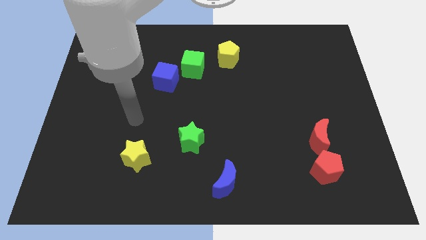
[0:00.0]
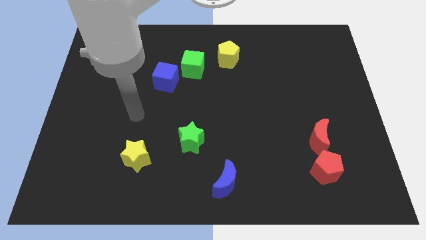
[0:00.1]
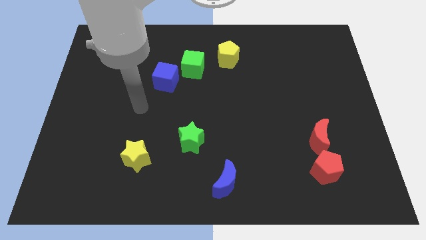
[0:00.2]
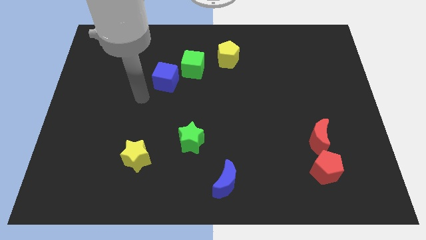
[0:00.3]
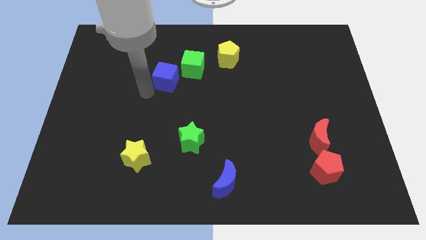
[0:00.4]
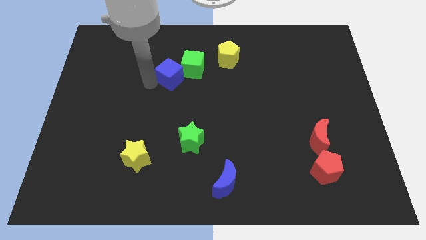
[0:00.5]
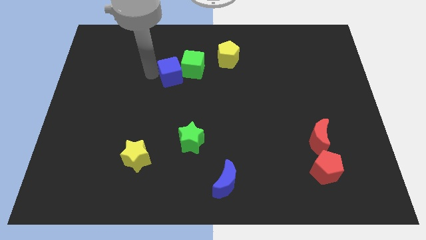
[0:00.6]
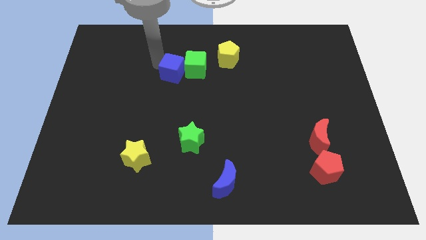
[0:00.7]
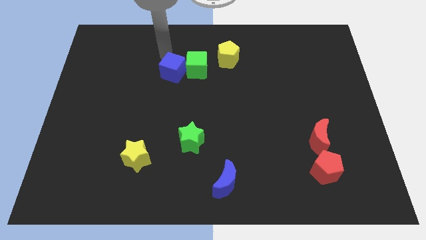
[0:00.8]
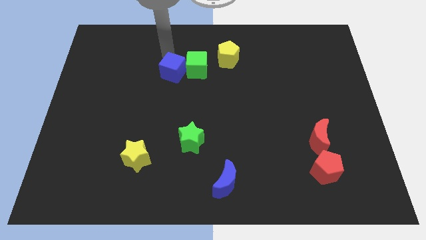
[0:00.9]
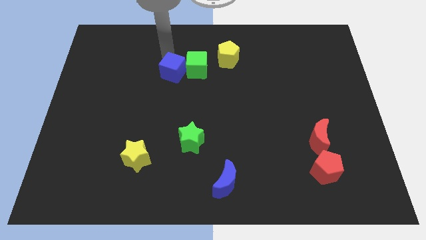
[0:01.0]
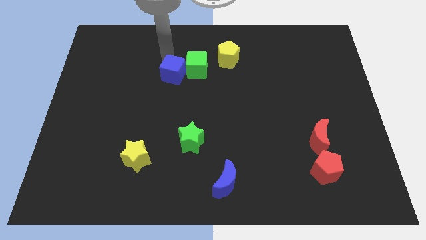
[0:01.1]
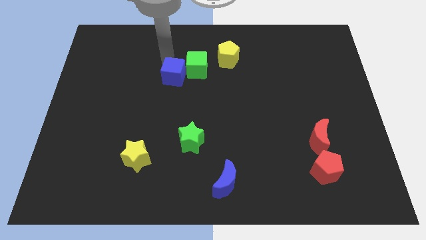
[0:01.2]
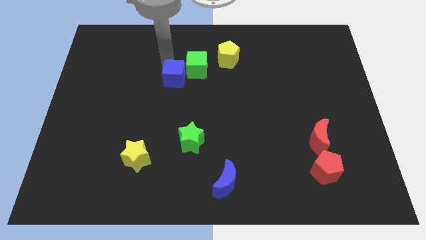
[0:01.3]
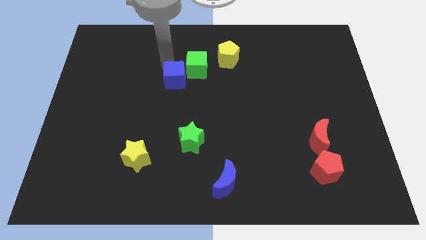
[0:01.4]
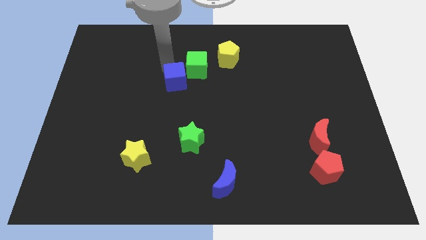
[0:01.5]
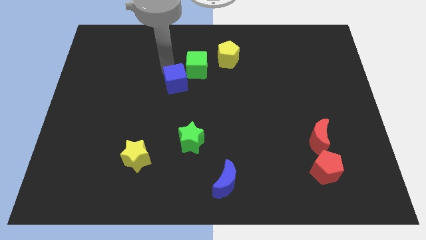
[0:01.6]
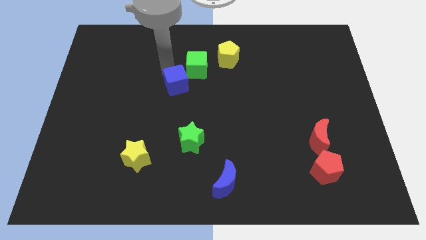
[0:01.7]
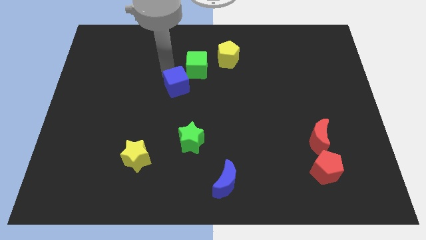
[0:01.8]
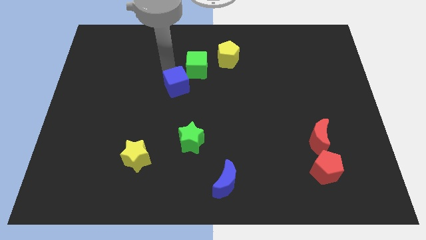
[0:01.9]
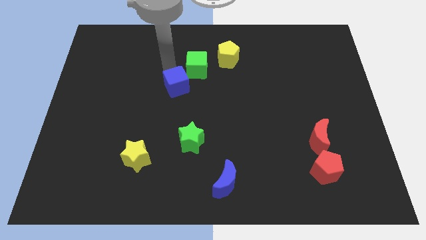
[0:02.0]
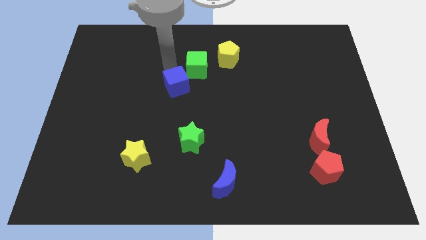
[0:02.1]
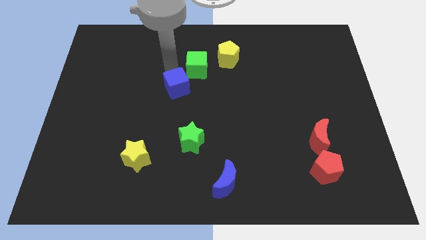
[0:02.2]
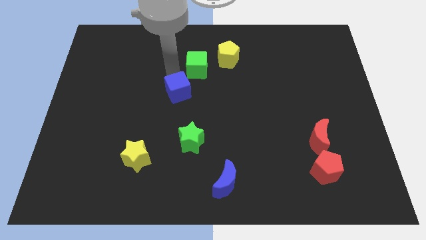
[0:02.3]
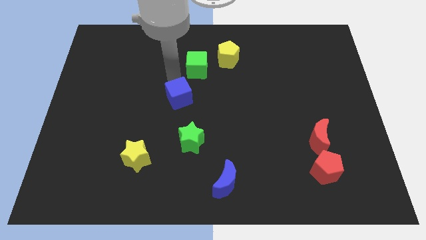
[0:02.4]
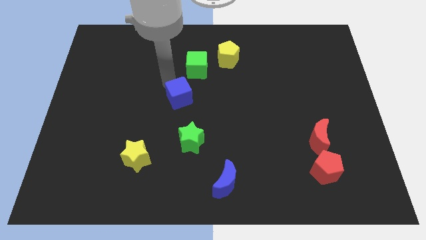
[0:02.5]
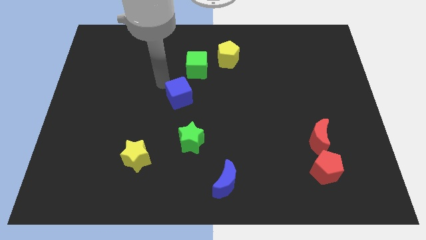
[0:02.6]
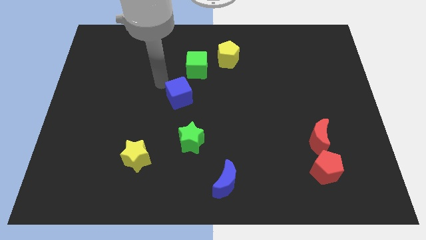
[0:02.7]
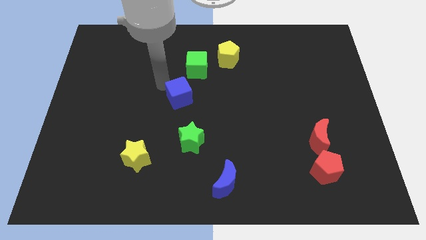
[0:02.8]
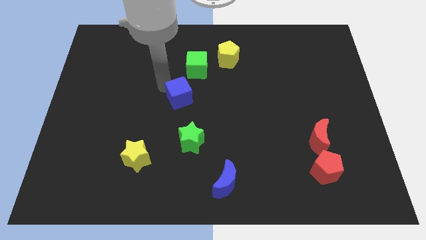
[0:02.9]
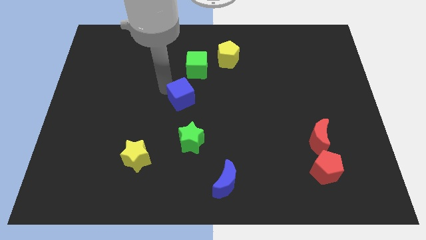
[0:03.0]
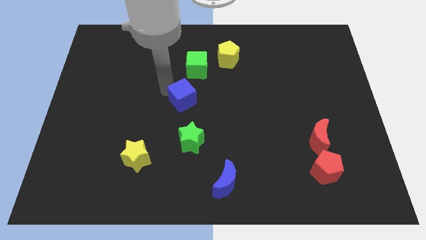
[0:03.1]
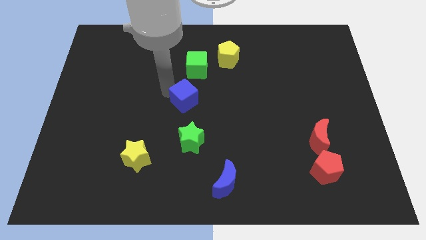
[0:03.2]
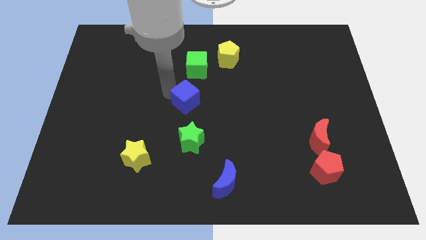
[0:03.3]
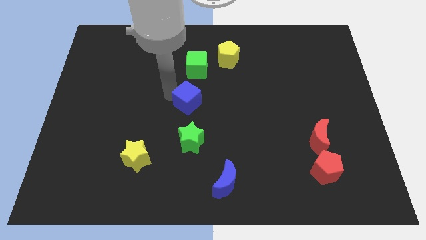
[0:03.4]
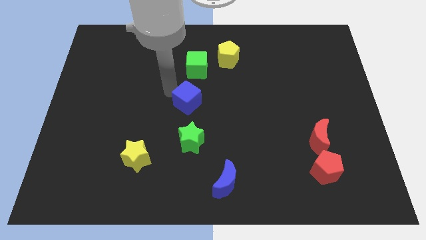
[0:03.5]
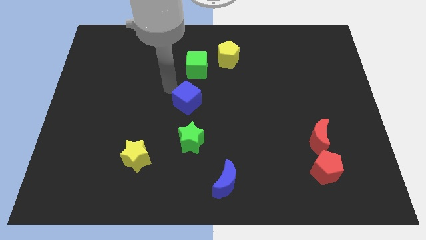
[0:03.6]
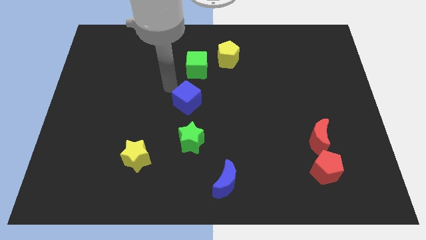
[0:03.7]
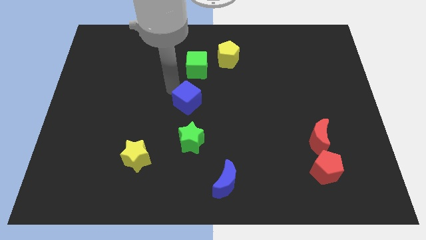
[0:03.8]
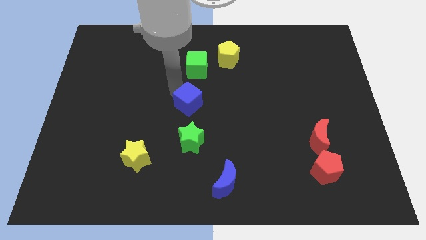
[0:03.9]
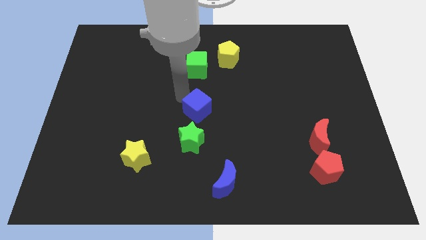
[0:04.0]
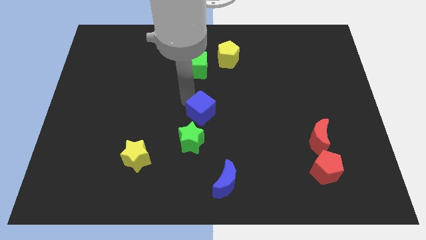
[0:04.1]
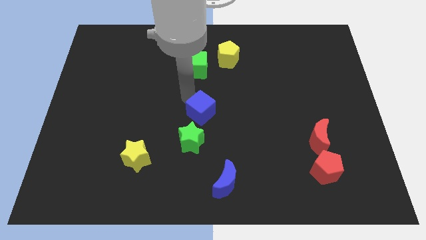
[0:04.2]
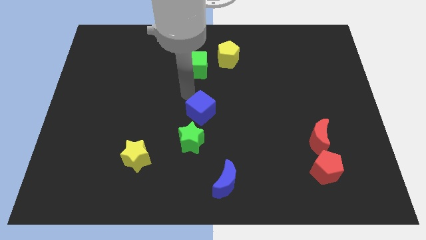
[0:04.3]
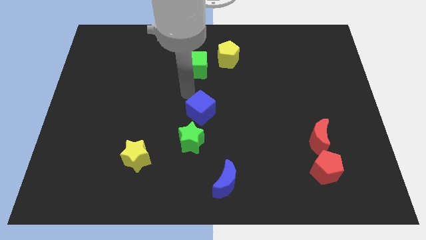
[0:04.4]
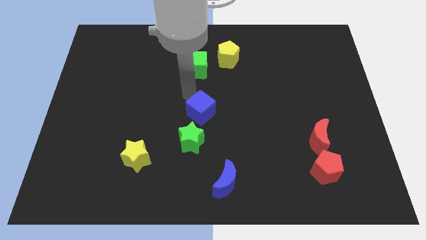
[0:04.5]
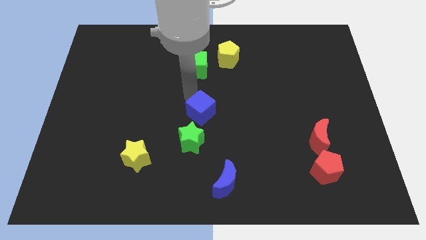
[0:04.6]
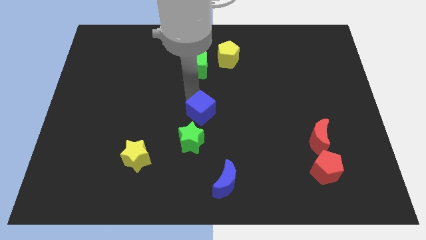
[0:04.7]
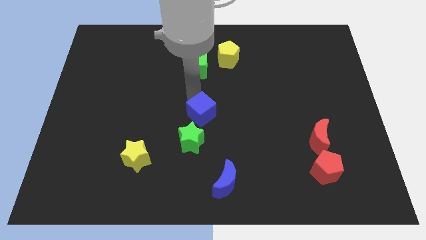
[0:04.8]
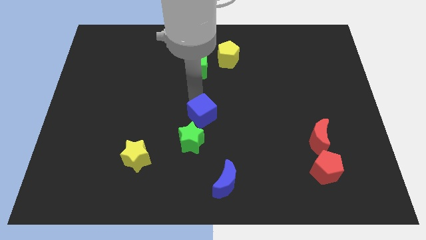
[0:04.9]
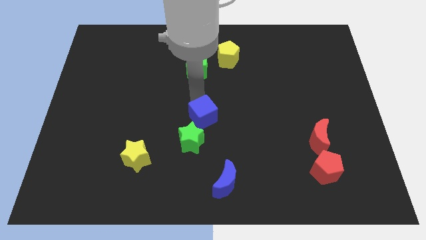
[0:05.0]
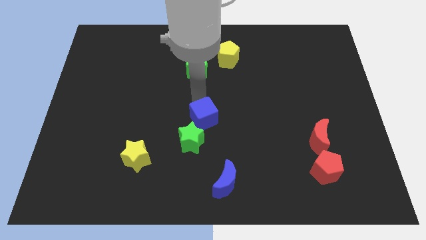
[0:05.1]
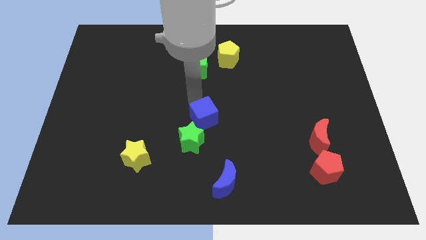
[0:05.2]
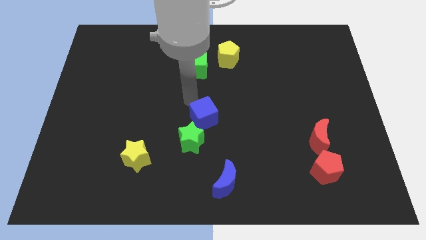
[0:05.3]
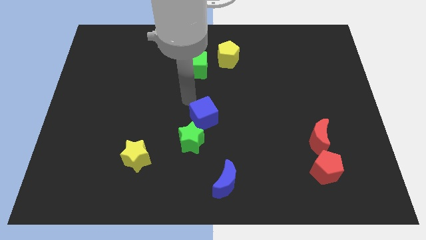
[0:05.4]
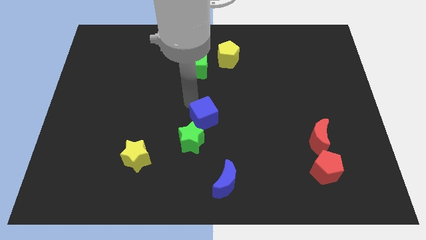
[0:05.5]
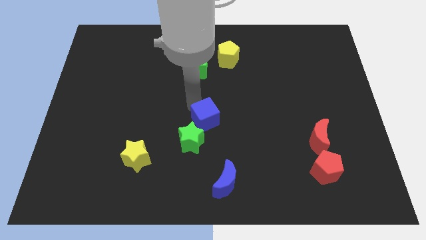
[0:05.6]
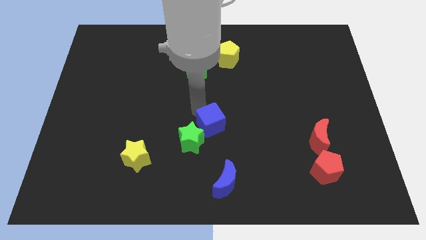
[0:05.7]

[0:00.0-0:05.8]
put the blue cube above the blue moon
